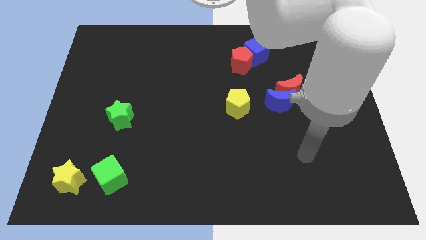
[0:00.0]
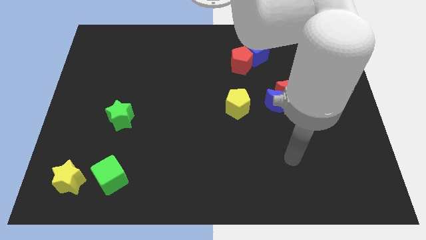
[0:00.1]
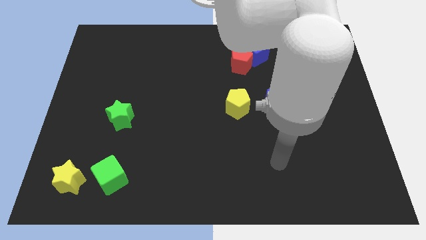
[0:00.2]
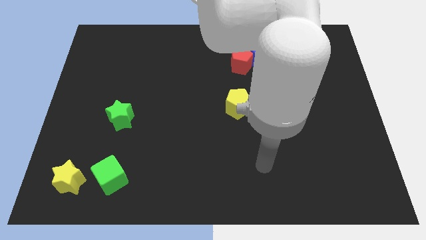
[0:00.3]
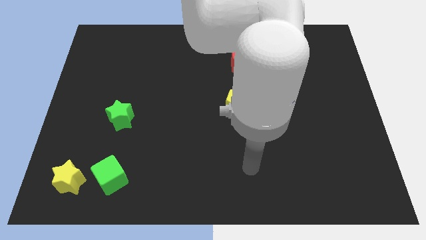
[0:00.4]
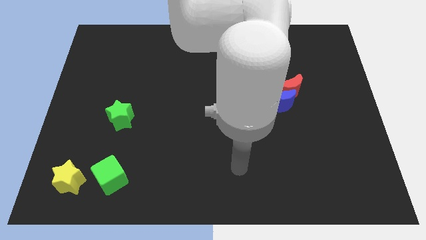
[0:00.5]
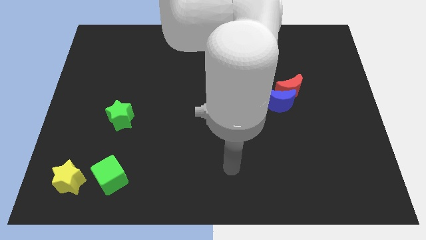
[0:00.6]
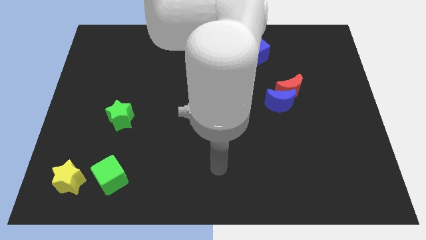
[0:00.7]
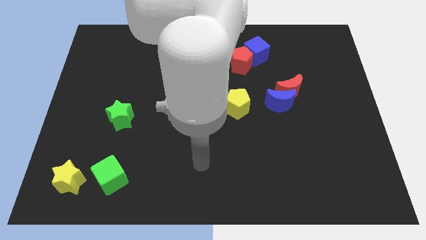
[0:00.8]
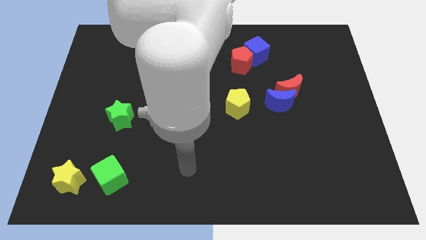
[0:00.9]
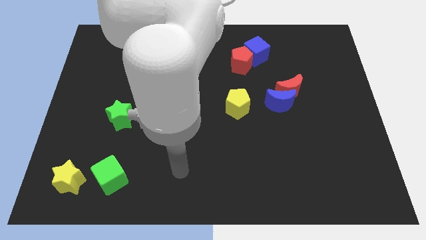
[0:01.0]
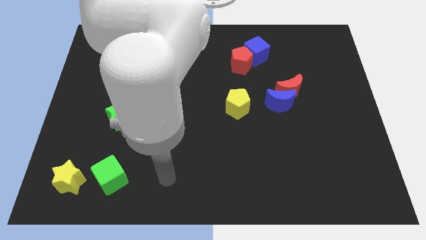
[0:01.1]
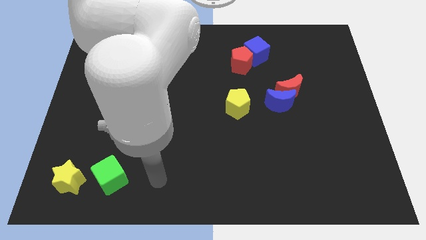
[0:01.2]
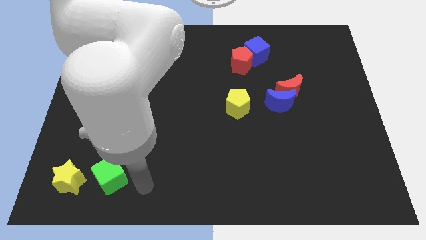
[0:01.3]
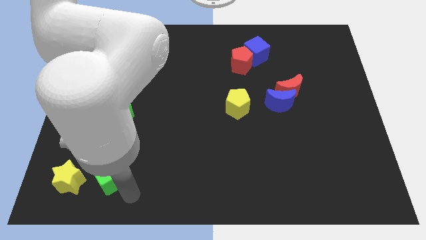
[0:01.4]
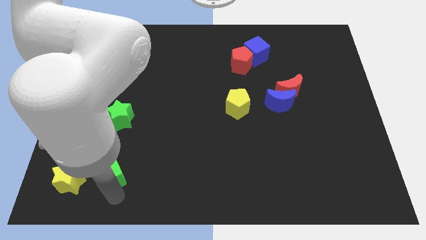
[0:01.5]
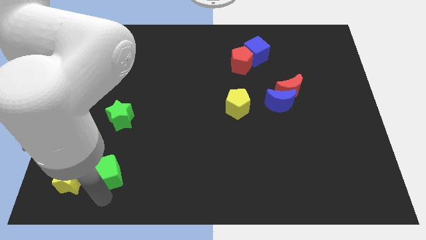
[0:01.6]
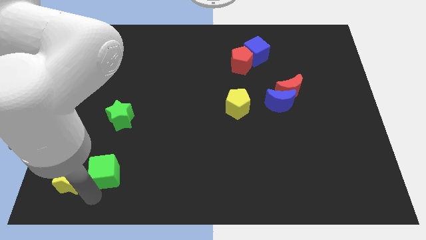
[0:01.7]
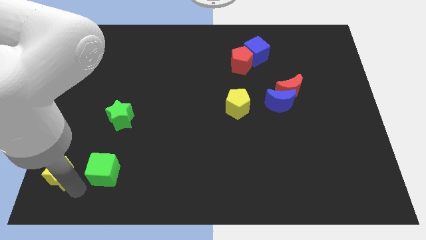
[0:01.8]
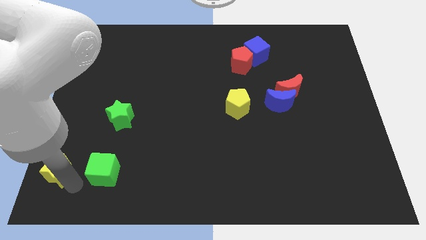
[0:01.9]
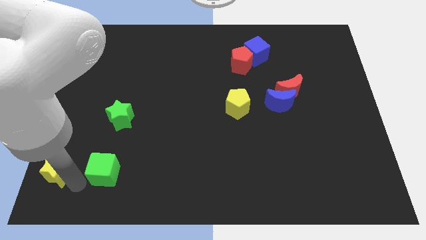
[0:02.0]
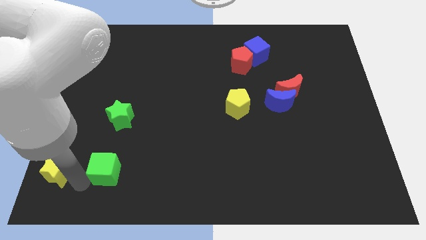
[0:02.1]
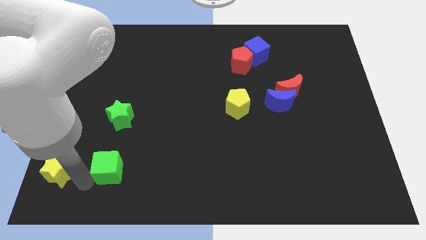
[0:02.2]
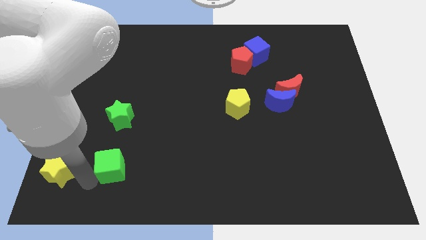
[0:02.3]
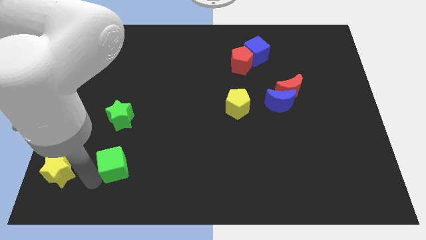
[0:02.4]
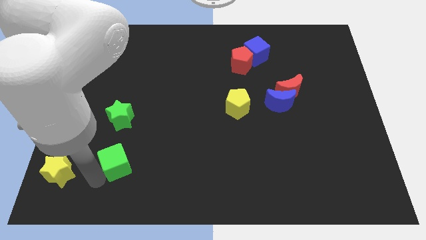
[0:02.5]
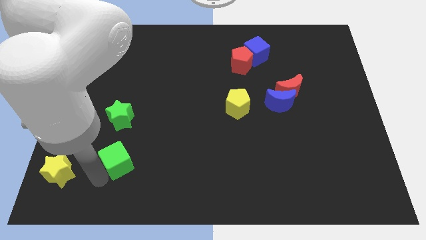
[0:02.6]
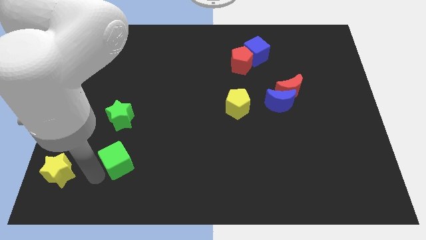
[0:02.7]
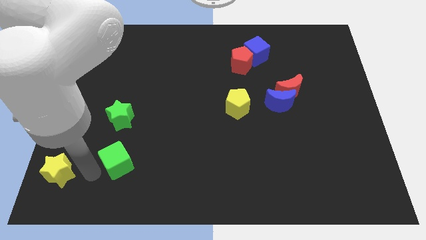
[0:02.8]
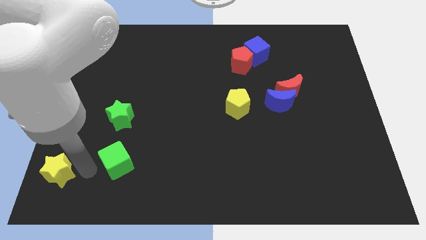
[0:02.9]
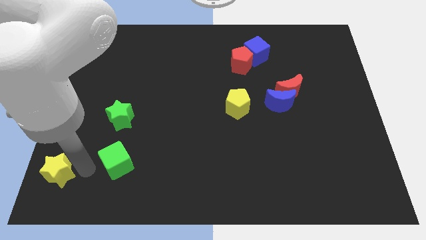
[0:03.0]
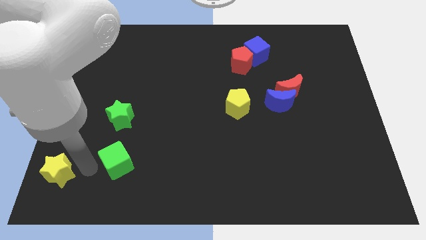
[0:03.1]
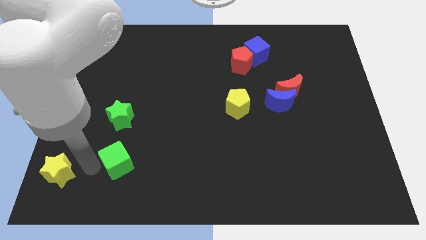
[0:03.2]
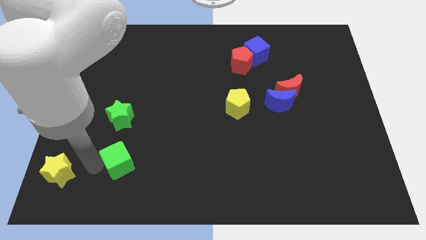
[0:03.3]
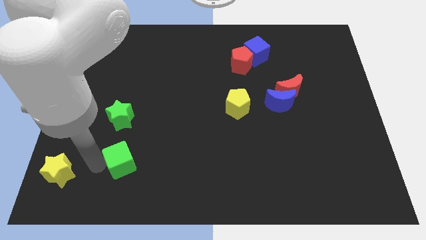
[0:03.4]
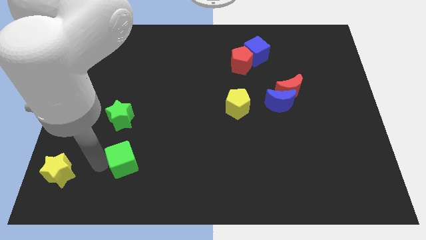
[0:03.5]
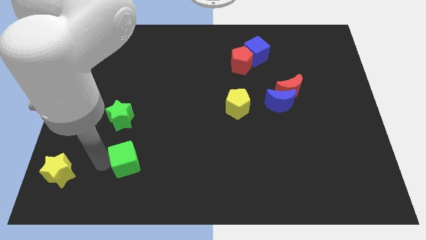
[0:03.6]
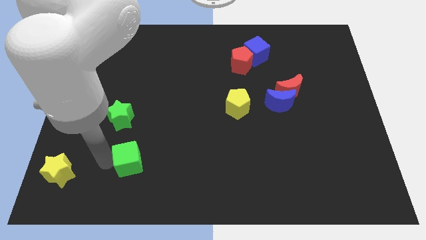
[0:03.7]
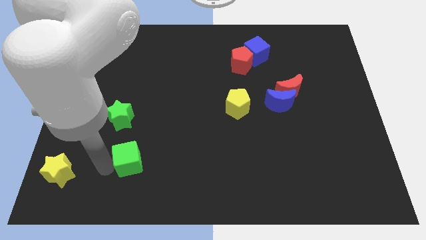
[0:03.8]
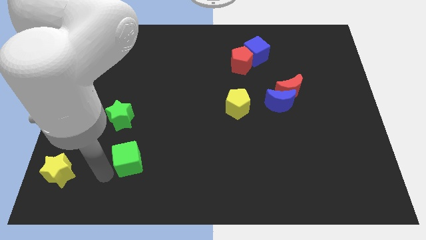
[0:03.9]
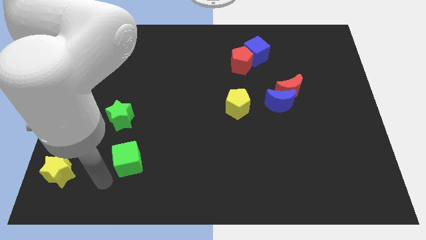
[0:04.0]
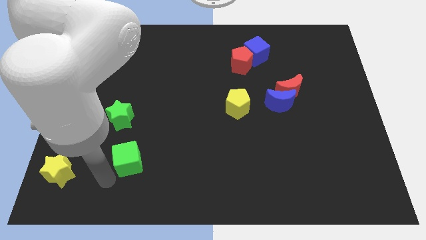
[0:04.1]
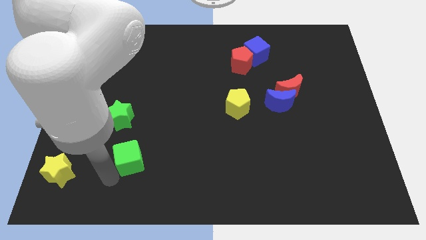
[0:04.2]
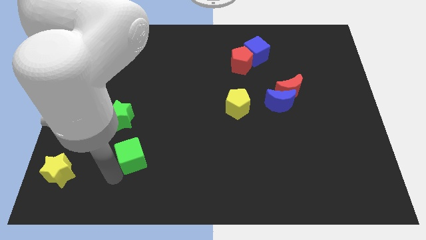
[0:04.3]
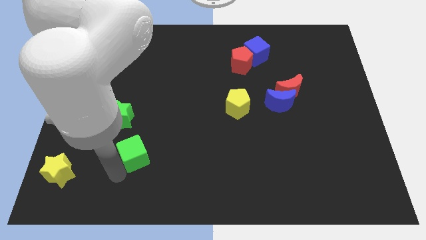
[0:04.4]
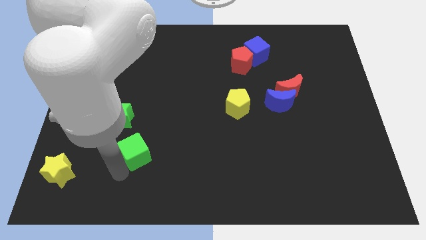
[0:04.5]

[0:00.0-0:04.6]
slide the green cube a bit upwards and then right

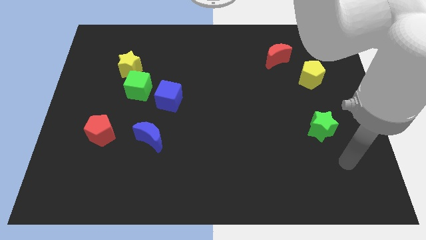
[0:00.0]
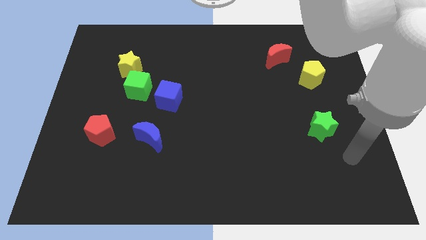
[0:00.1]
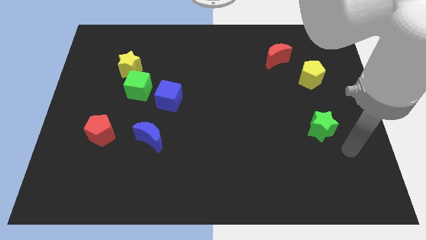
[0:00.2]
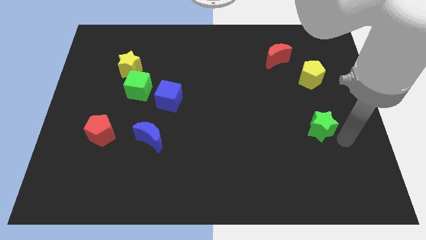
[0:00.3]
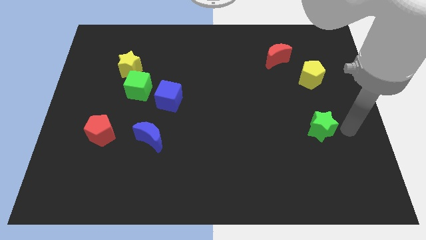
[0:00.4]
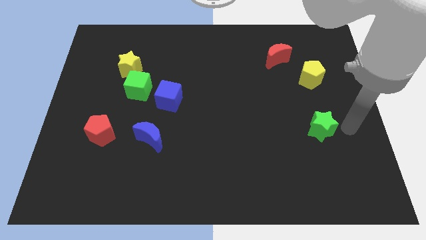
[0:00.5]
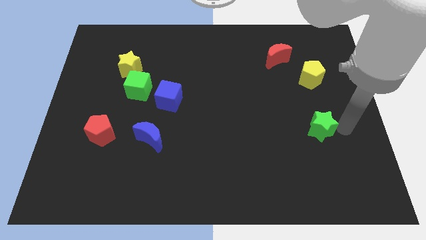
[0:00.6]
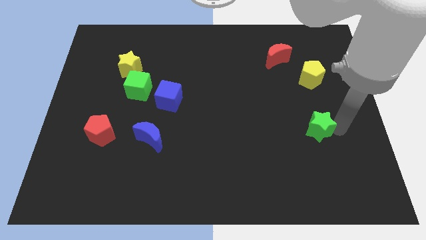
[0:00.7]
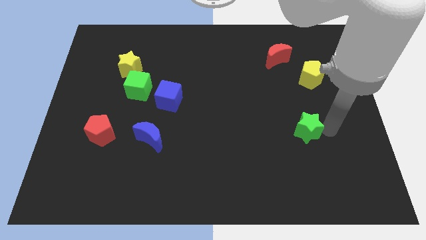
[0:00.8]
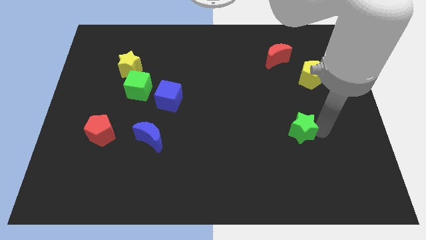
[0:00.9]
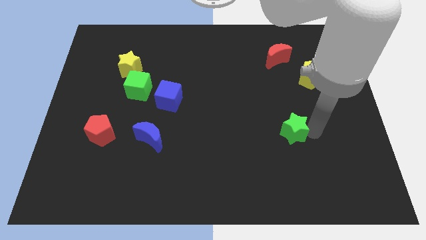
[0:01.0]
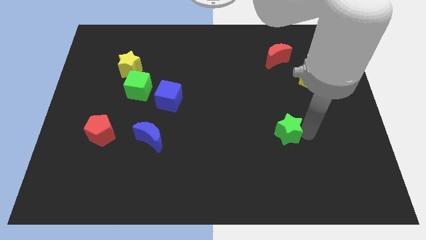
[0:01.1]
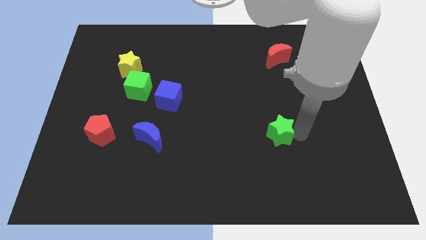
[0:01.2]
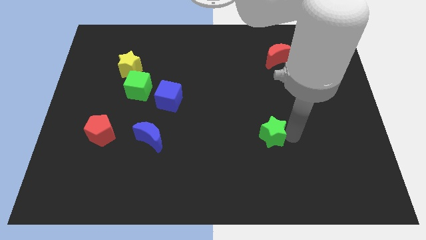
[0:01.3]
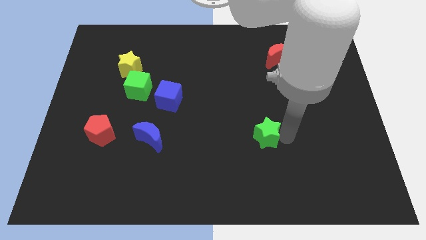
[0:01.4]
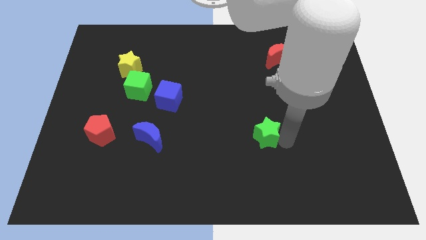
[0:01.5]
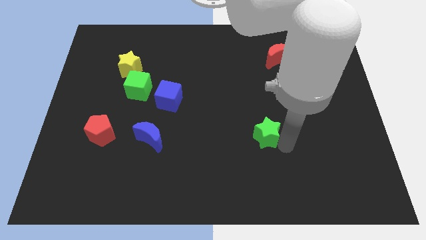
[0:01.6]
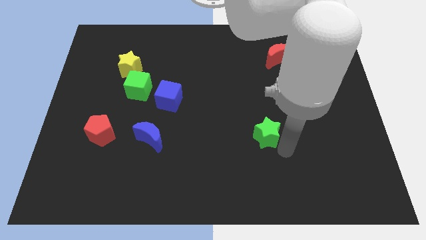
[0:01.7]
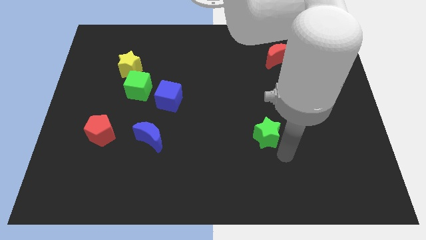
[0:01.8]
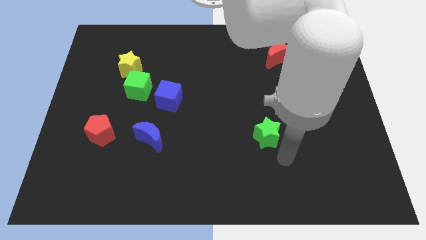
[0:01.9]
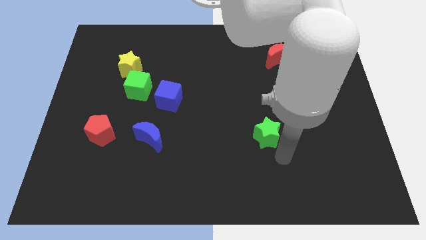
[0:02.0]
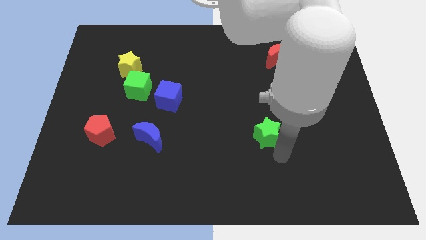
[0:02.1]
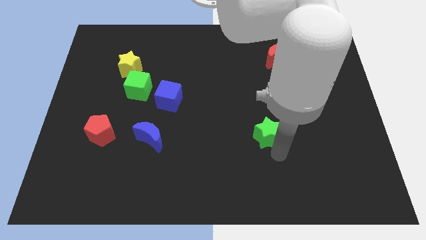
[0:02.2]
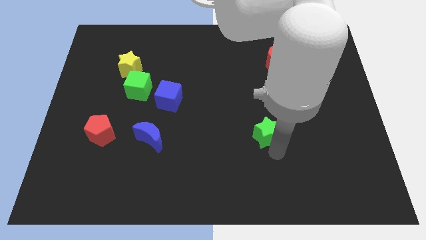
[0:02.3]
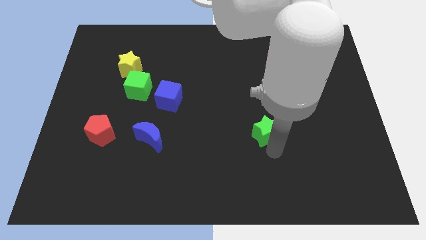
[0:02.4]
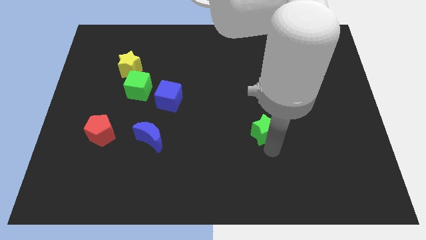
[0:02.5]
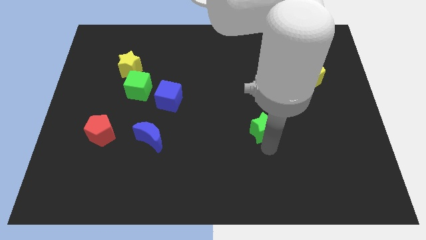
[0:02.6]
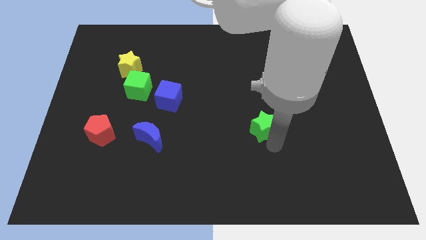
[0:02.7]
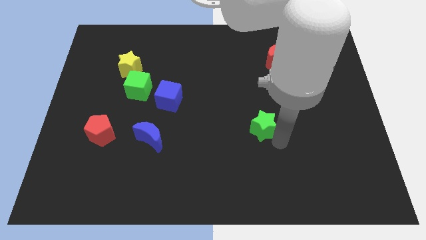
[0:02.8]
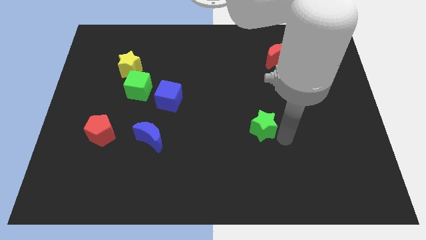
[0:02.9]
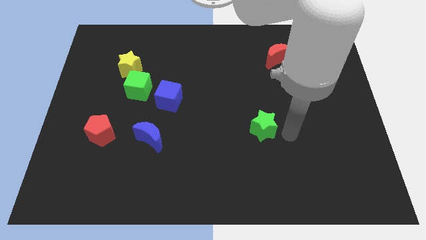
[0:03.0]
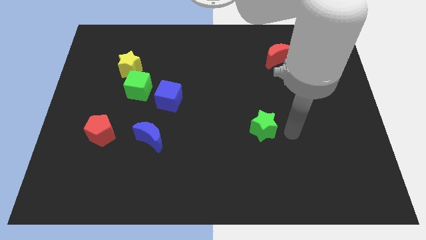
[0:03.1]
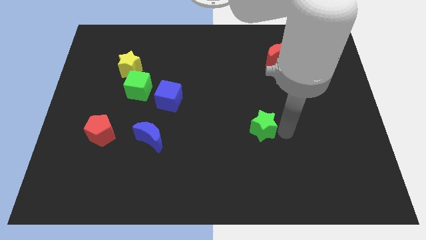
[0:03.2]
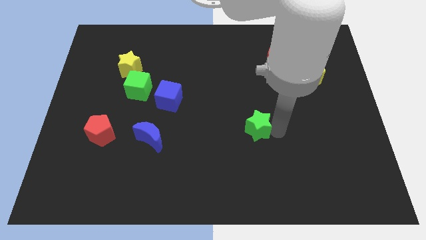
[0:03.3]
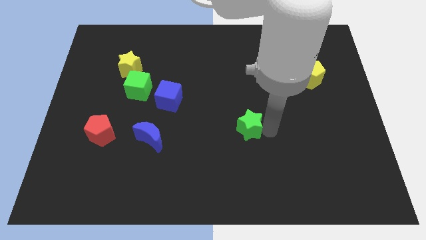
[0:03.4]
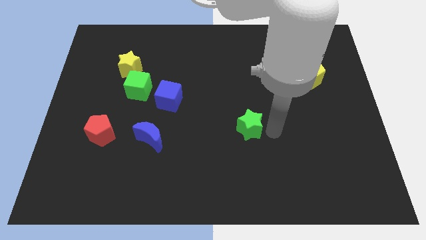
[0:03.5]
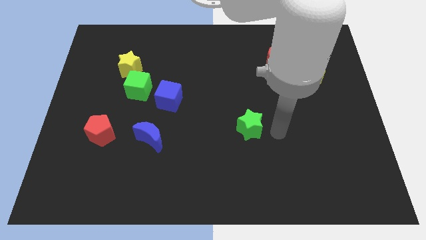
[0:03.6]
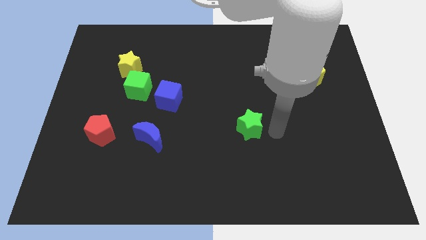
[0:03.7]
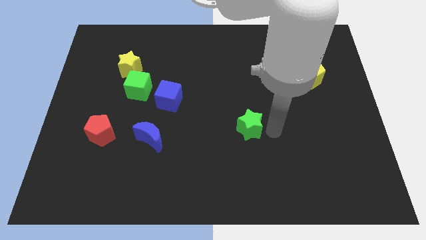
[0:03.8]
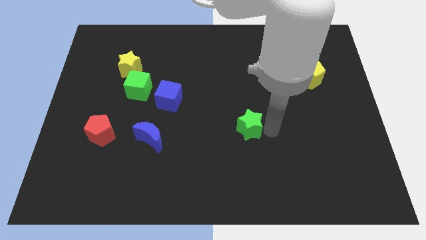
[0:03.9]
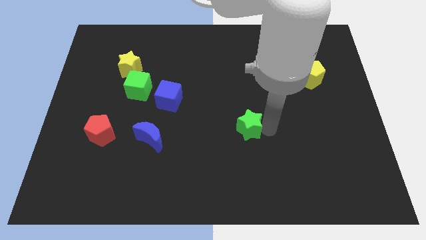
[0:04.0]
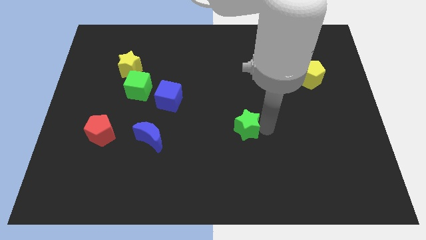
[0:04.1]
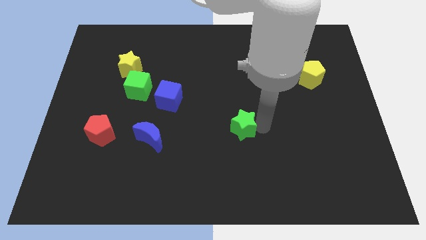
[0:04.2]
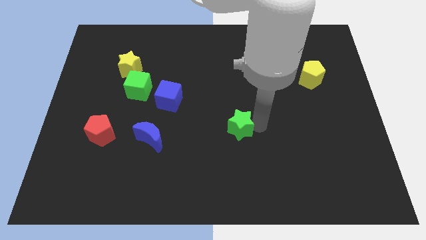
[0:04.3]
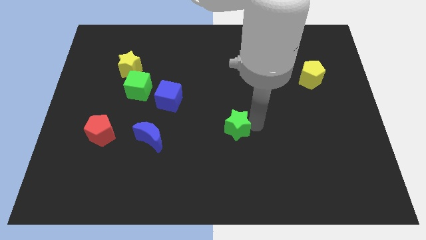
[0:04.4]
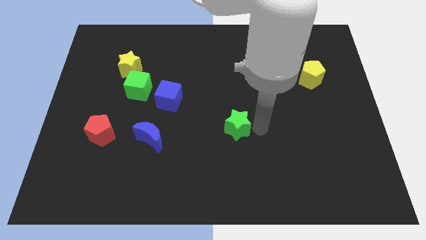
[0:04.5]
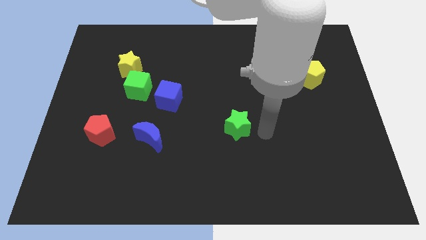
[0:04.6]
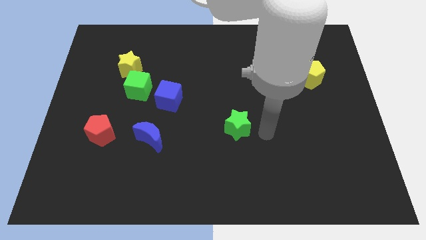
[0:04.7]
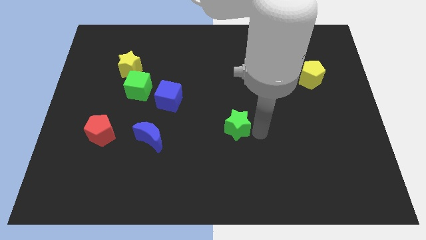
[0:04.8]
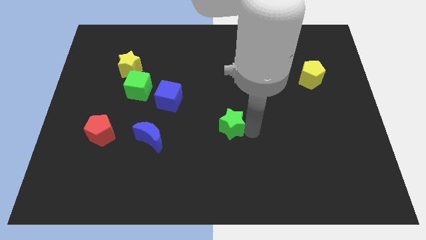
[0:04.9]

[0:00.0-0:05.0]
move the green star left
